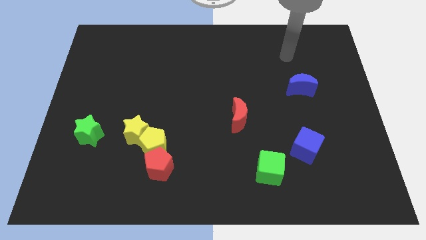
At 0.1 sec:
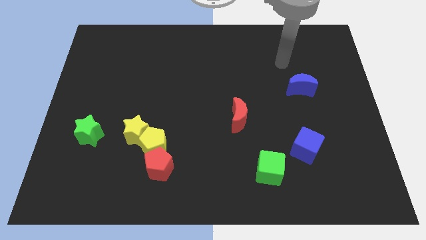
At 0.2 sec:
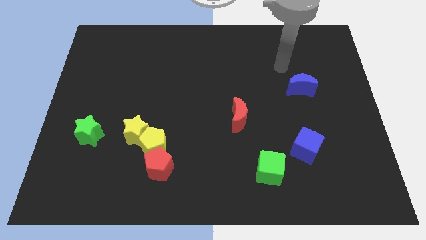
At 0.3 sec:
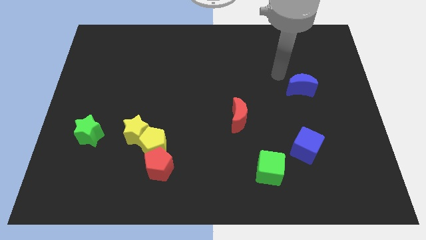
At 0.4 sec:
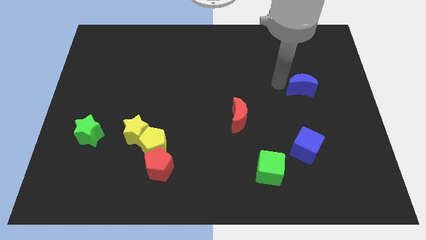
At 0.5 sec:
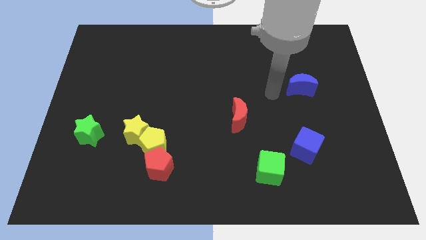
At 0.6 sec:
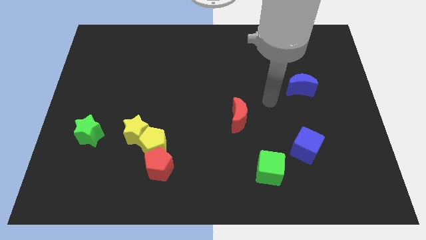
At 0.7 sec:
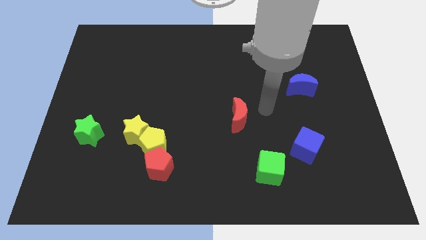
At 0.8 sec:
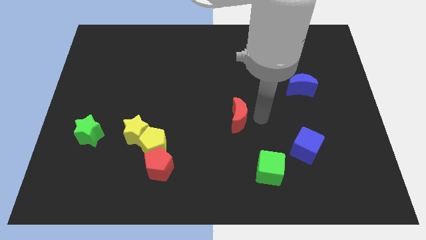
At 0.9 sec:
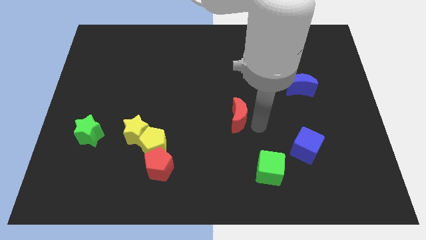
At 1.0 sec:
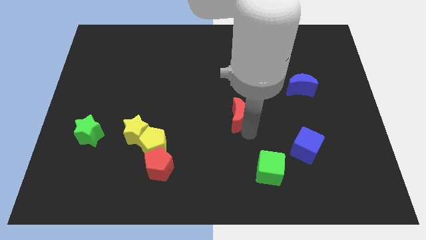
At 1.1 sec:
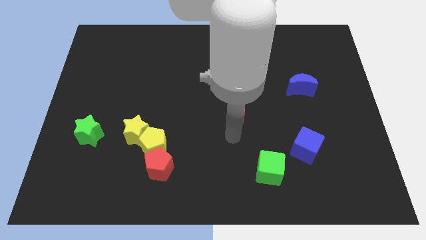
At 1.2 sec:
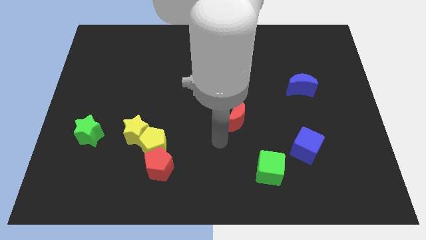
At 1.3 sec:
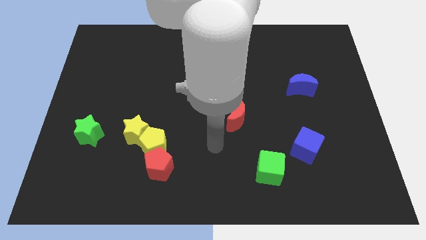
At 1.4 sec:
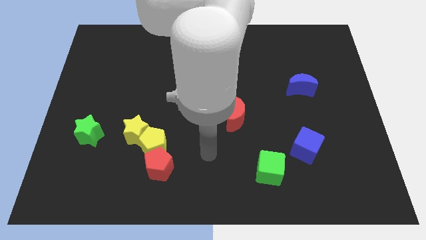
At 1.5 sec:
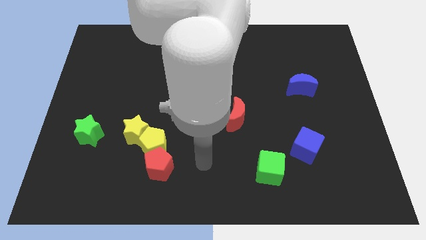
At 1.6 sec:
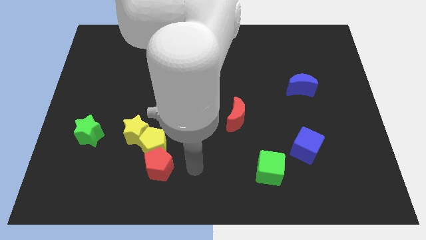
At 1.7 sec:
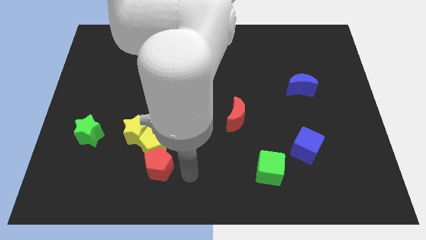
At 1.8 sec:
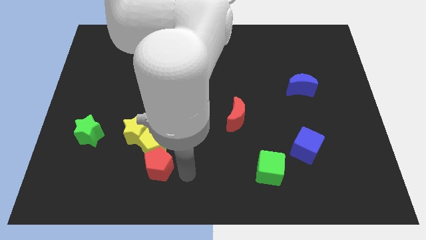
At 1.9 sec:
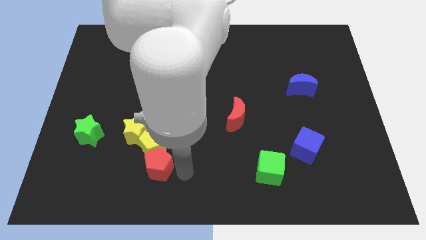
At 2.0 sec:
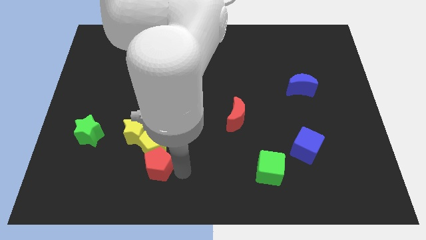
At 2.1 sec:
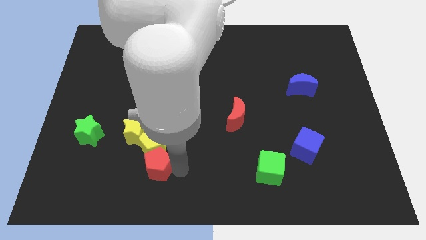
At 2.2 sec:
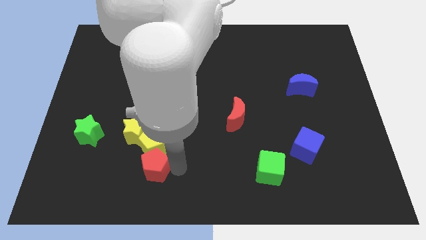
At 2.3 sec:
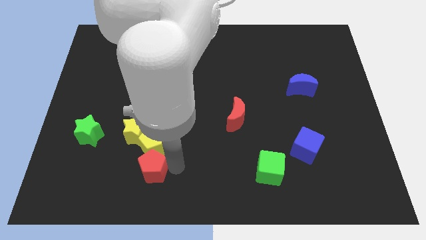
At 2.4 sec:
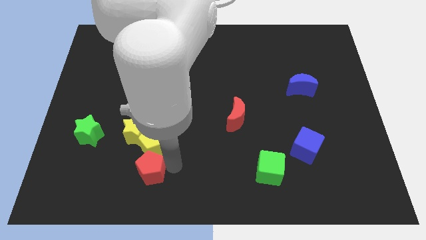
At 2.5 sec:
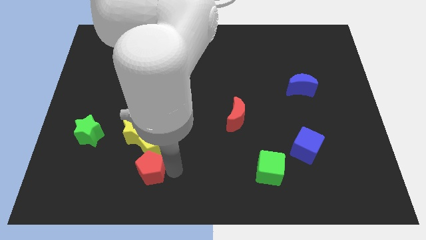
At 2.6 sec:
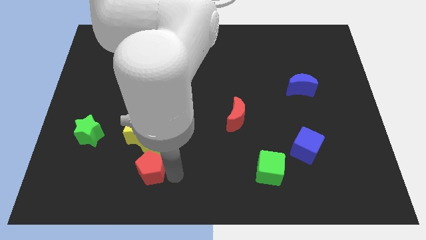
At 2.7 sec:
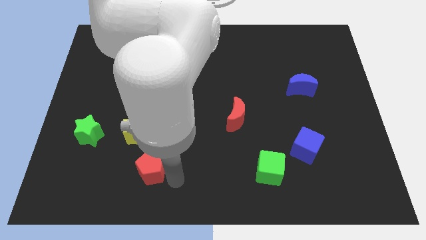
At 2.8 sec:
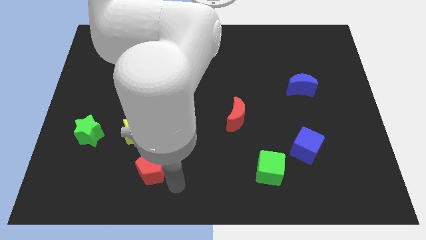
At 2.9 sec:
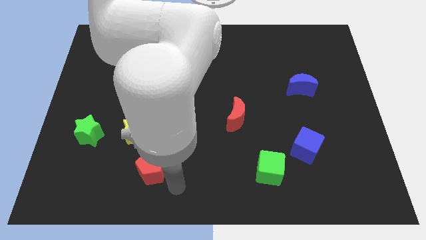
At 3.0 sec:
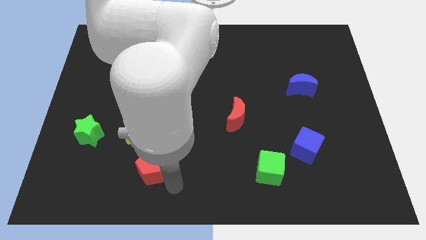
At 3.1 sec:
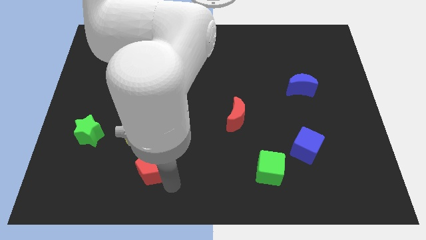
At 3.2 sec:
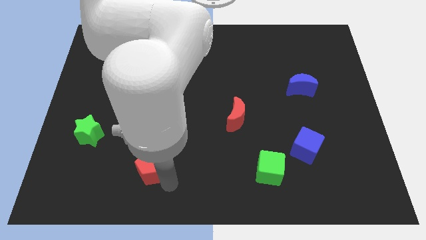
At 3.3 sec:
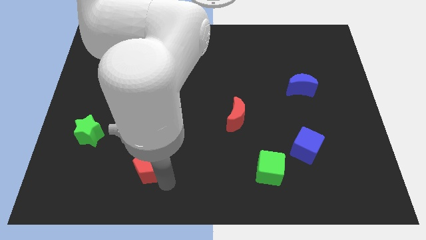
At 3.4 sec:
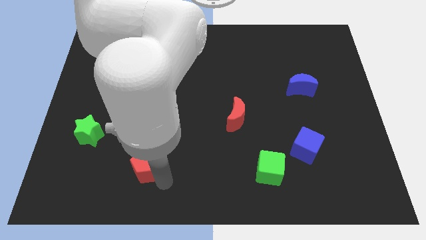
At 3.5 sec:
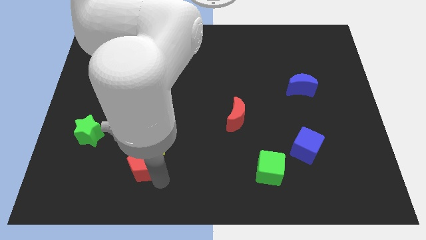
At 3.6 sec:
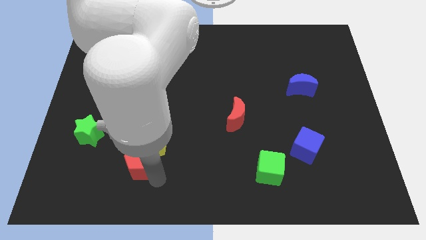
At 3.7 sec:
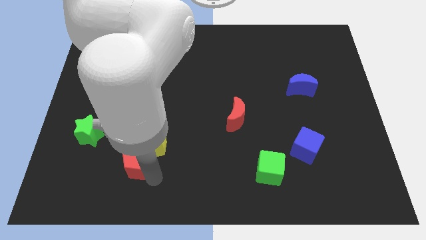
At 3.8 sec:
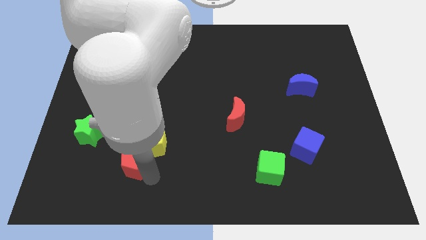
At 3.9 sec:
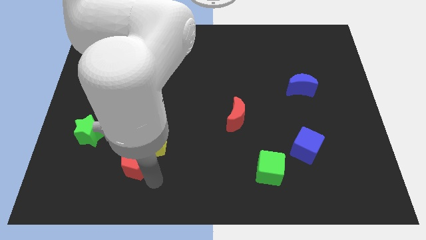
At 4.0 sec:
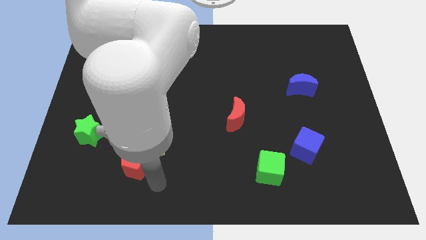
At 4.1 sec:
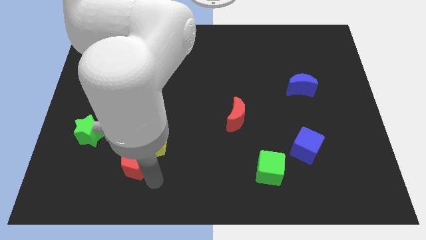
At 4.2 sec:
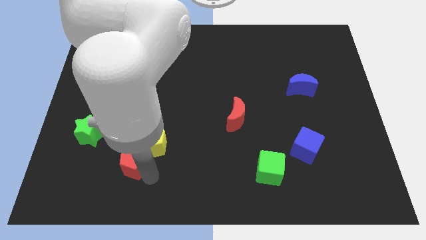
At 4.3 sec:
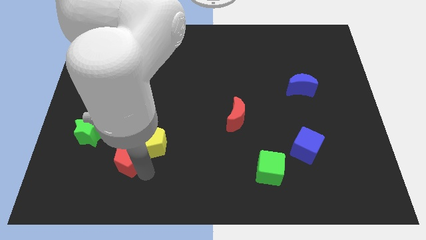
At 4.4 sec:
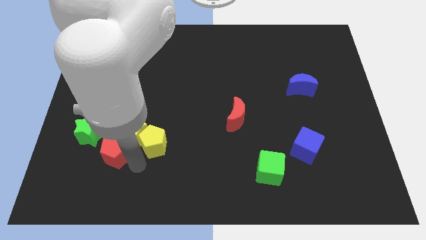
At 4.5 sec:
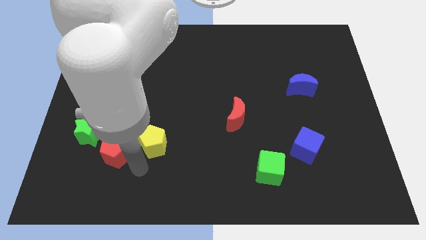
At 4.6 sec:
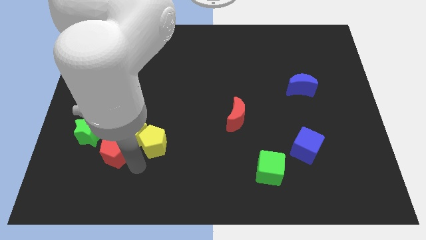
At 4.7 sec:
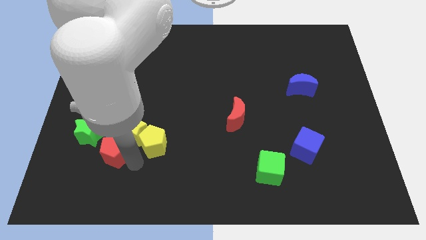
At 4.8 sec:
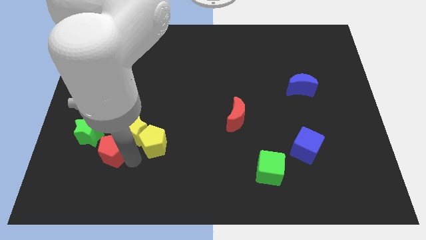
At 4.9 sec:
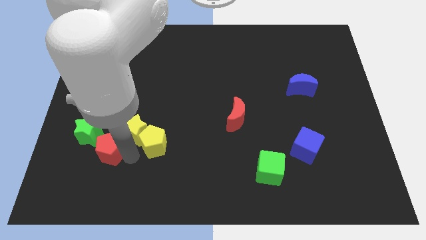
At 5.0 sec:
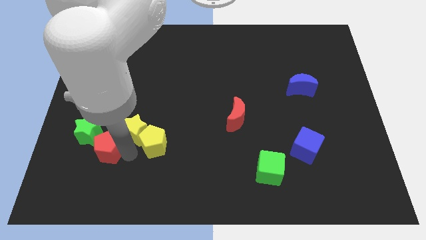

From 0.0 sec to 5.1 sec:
put the red pentagon to the green star

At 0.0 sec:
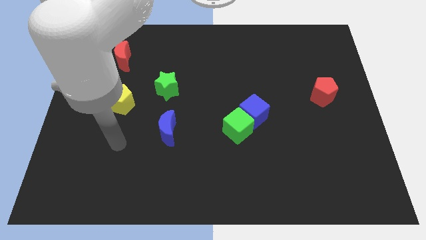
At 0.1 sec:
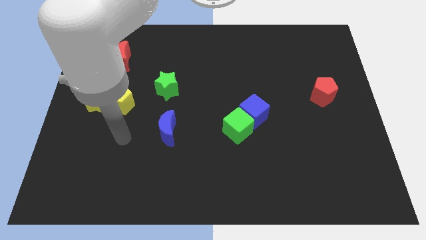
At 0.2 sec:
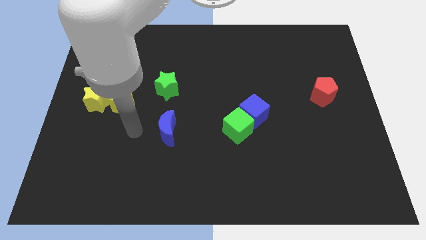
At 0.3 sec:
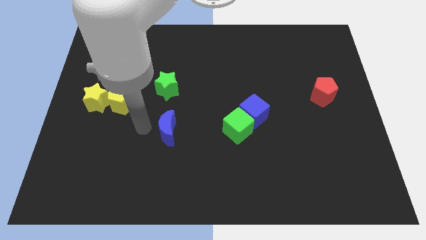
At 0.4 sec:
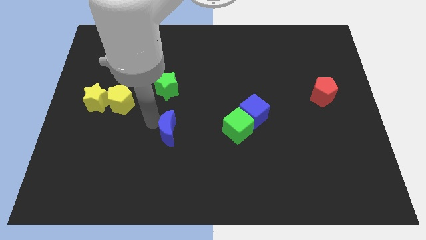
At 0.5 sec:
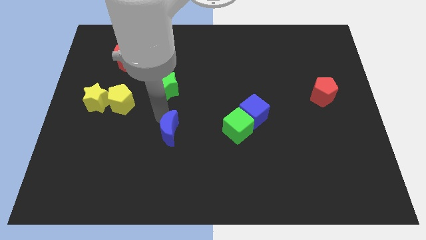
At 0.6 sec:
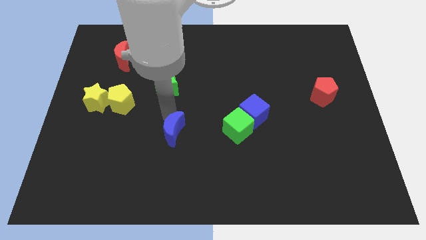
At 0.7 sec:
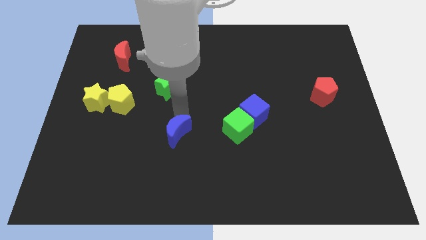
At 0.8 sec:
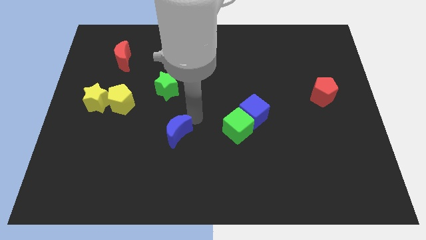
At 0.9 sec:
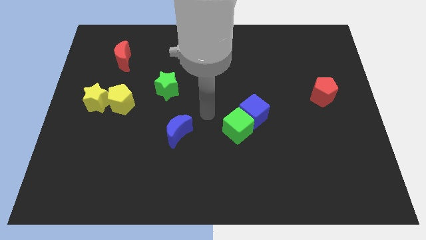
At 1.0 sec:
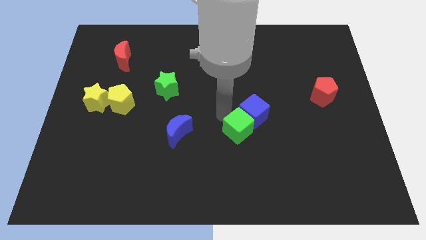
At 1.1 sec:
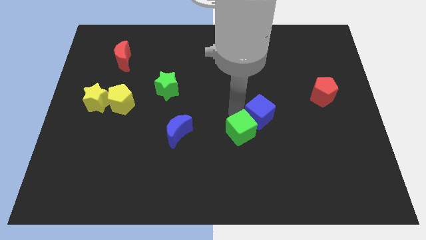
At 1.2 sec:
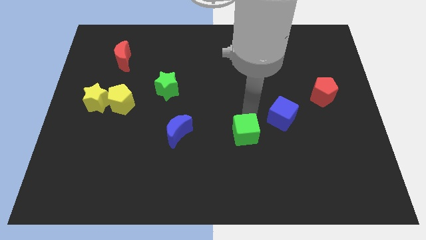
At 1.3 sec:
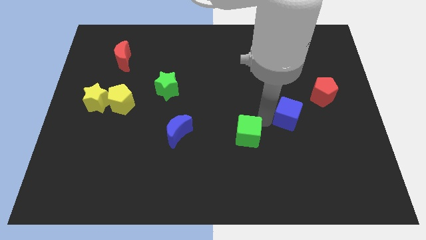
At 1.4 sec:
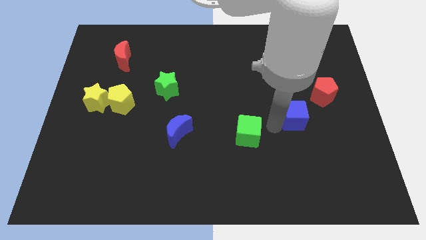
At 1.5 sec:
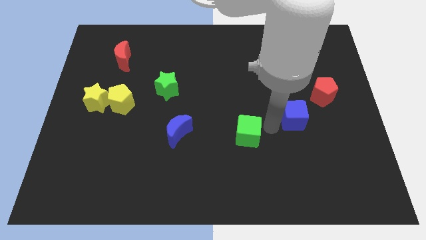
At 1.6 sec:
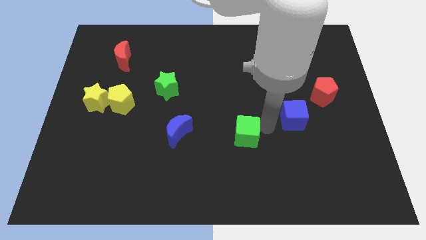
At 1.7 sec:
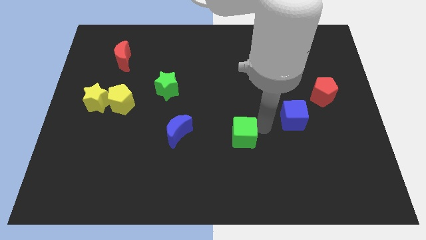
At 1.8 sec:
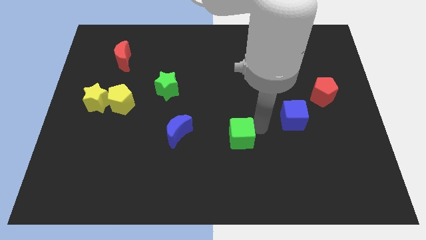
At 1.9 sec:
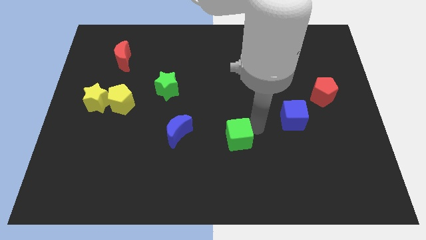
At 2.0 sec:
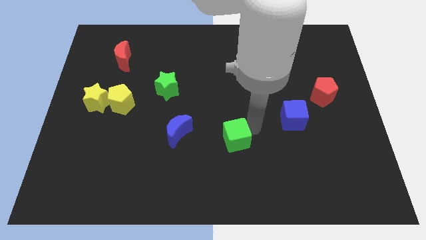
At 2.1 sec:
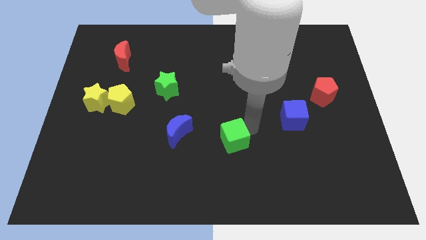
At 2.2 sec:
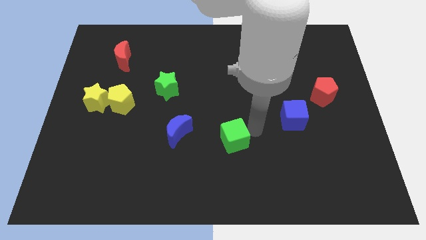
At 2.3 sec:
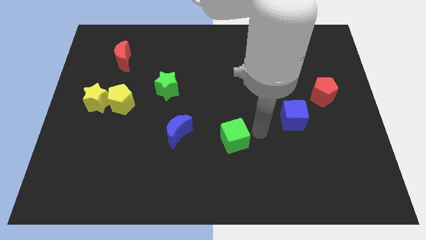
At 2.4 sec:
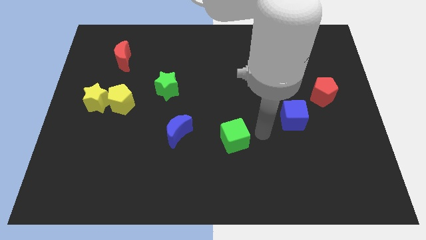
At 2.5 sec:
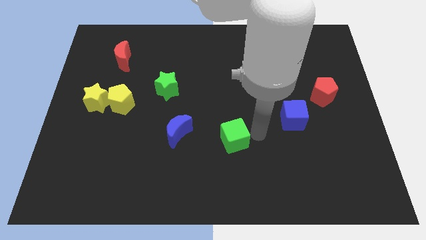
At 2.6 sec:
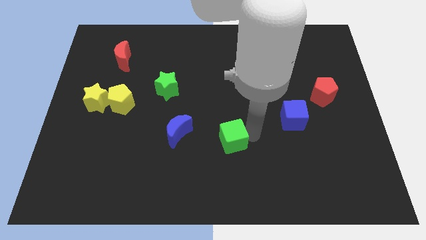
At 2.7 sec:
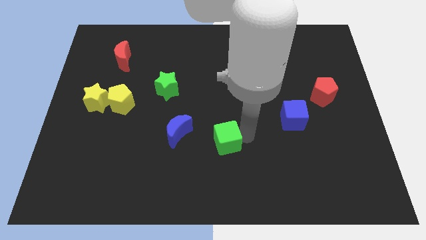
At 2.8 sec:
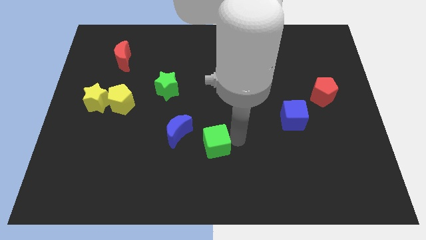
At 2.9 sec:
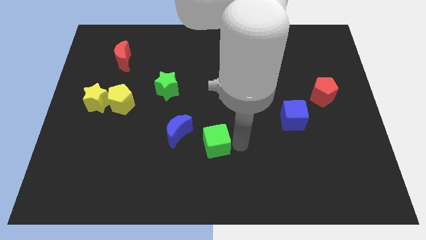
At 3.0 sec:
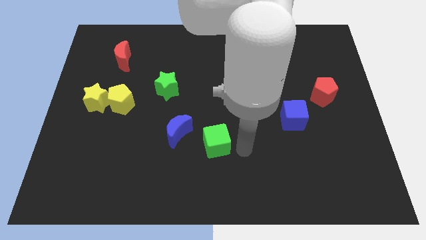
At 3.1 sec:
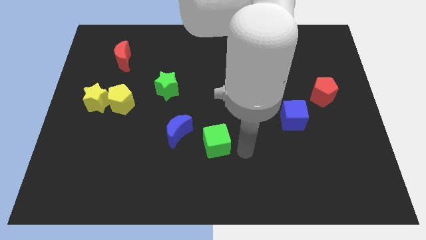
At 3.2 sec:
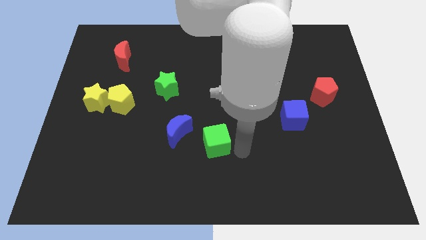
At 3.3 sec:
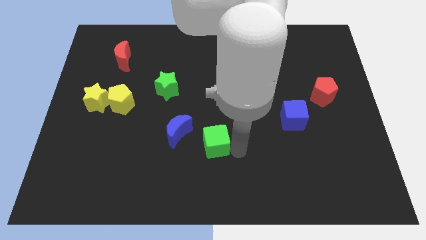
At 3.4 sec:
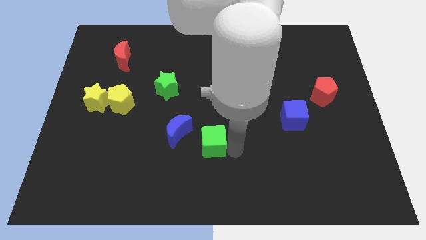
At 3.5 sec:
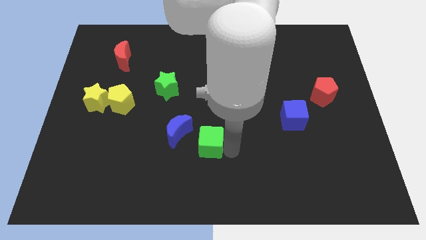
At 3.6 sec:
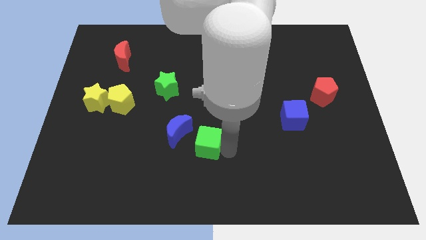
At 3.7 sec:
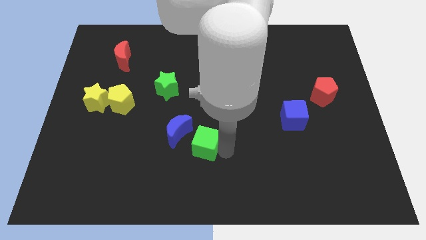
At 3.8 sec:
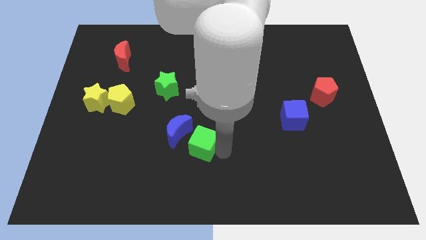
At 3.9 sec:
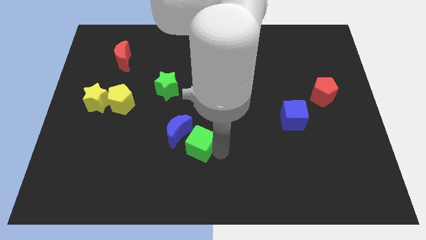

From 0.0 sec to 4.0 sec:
put the green cube close to the blue moon
